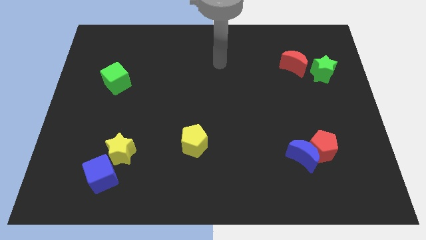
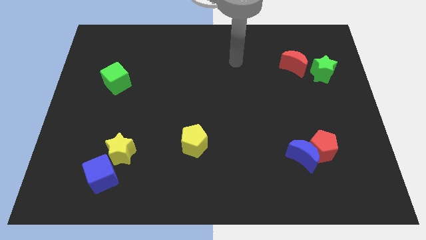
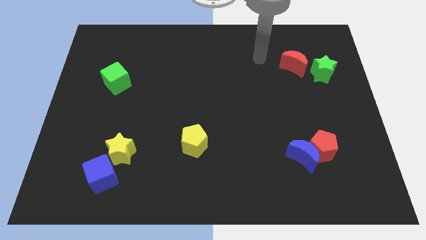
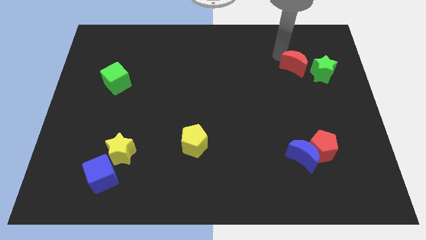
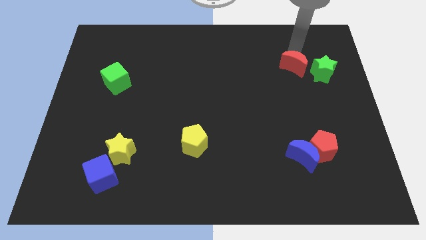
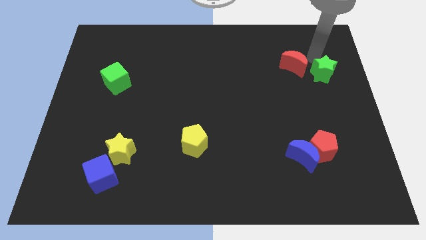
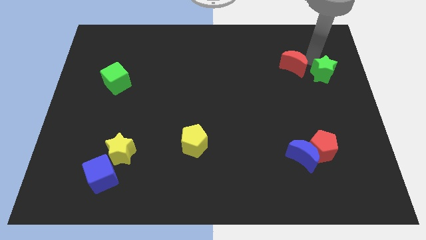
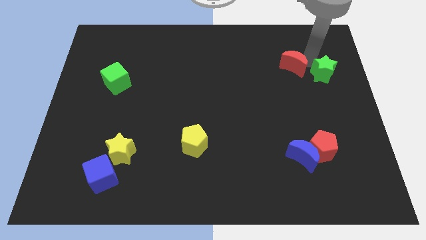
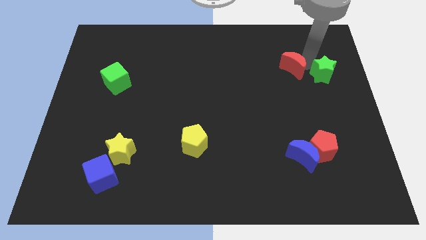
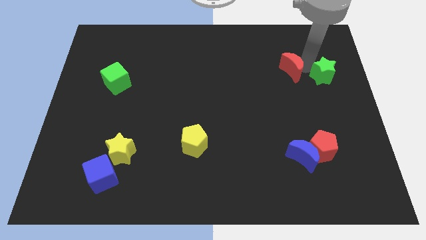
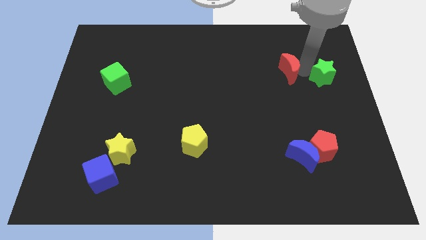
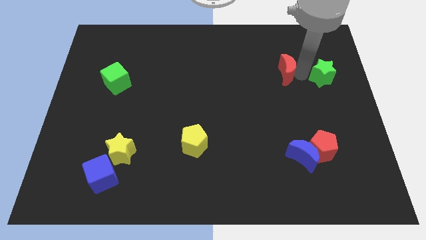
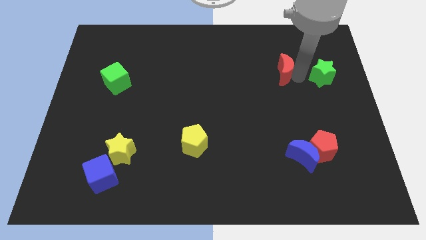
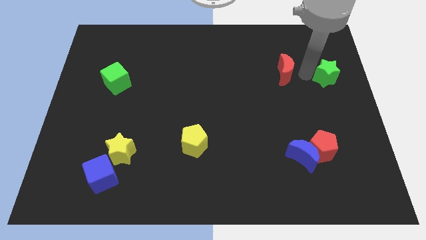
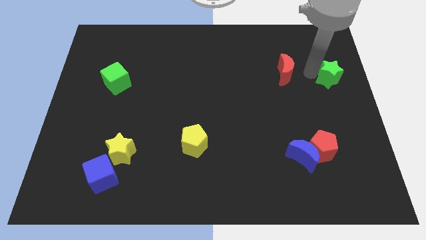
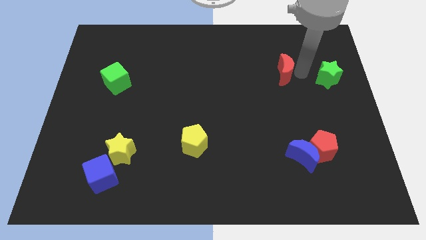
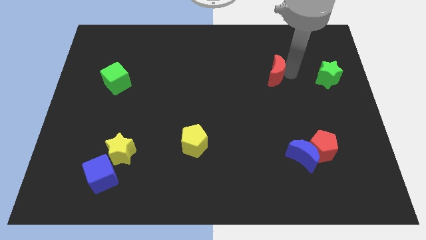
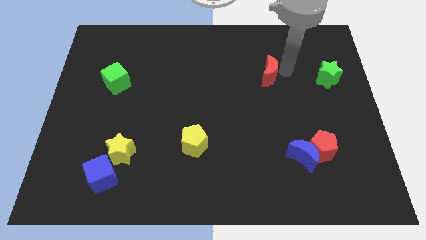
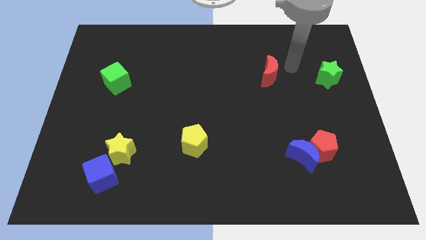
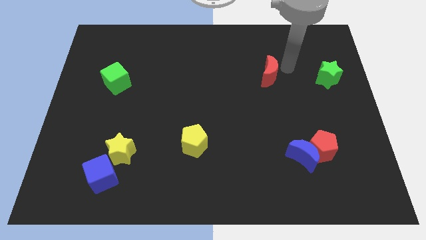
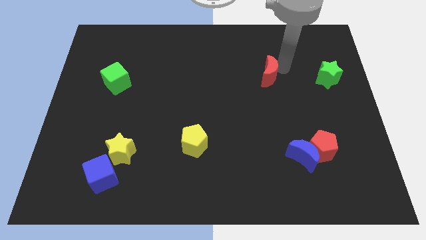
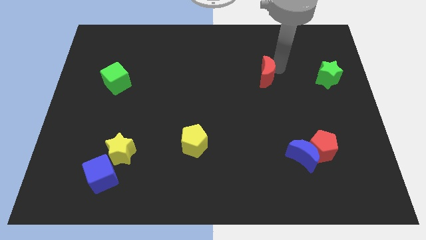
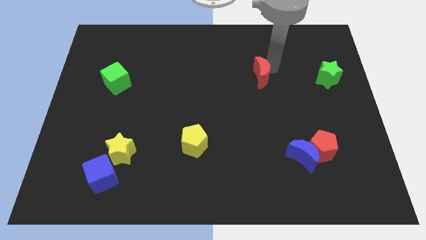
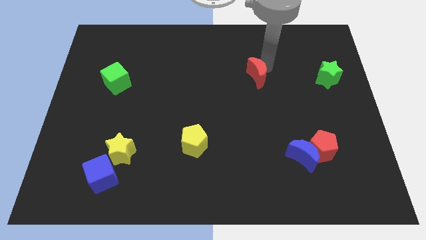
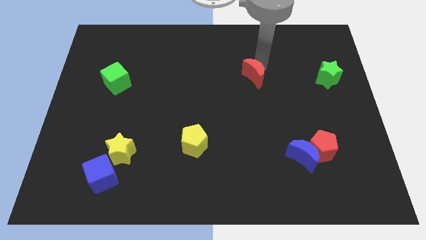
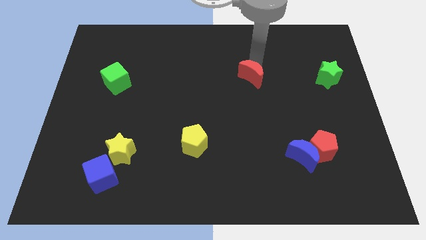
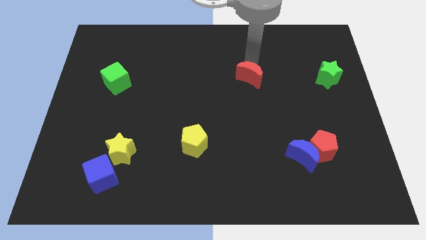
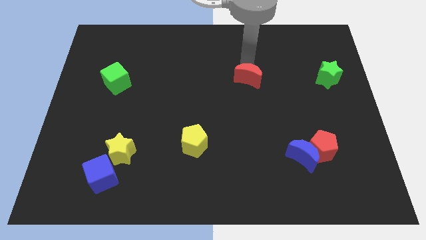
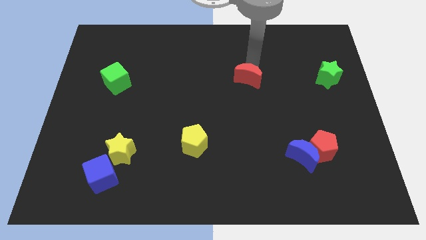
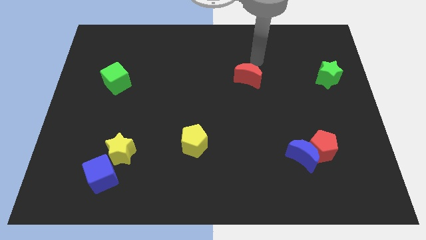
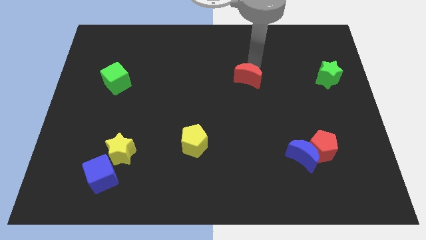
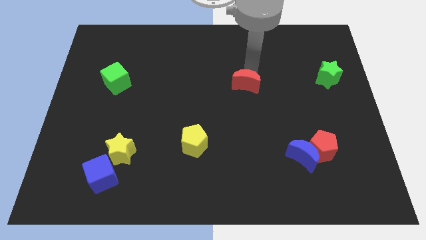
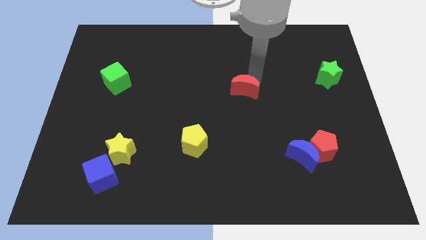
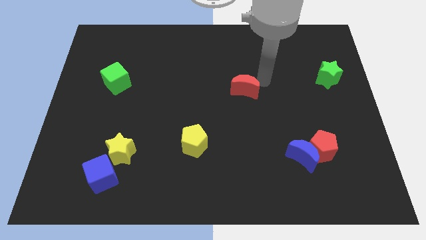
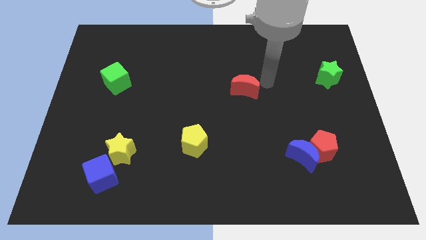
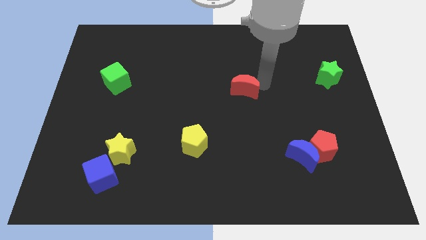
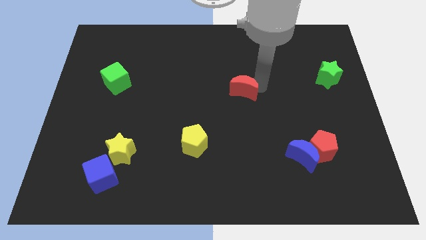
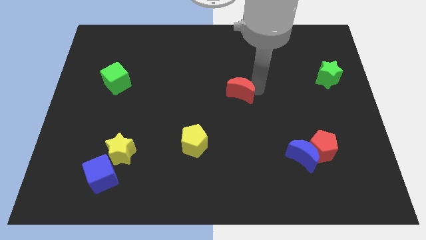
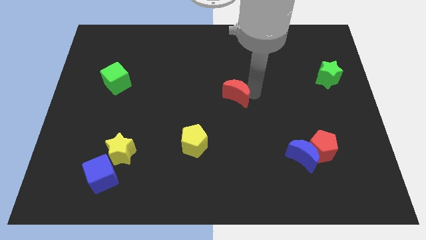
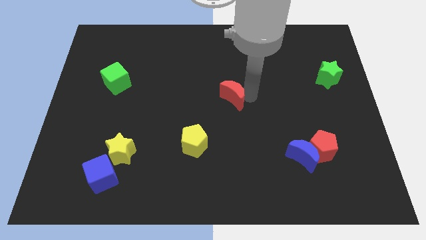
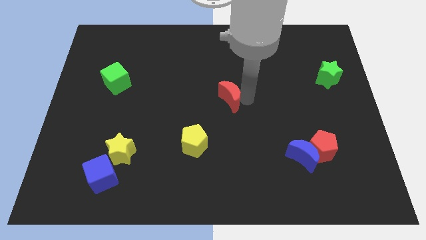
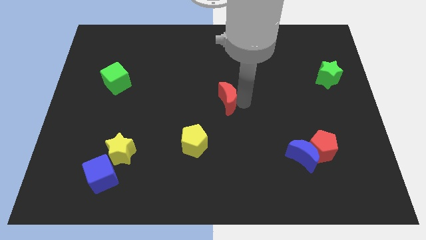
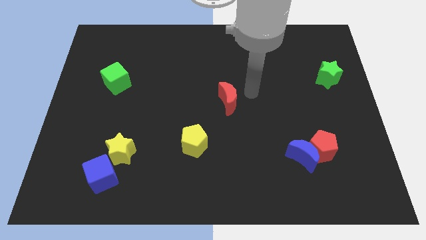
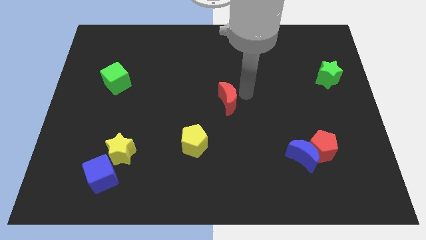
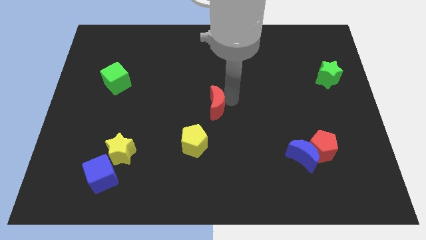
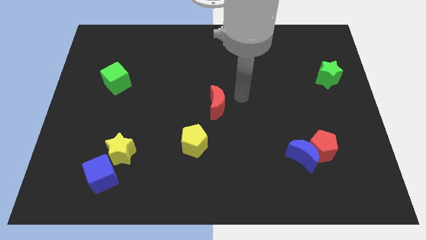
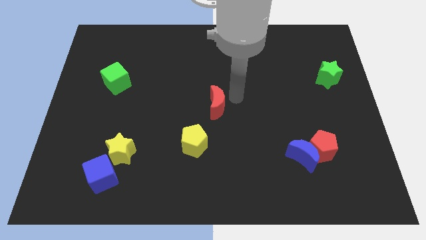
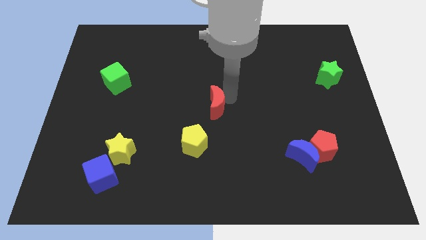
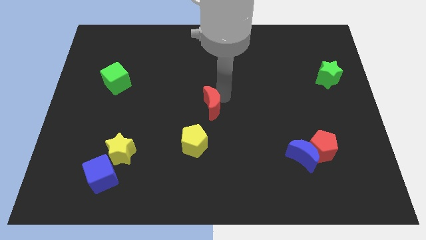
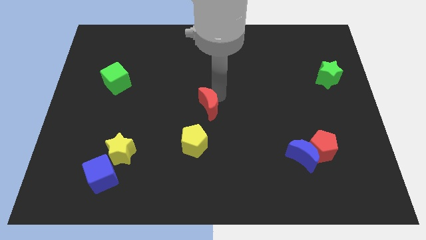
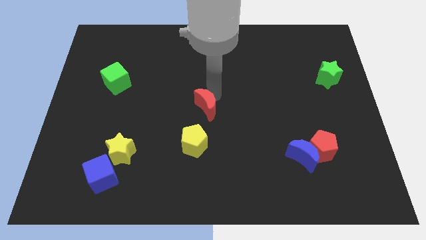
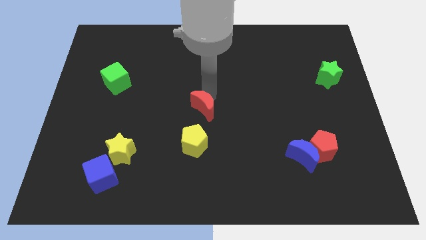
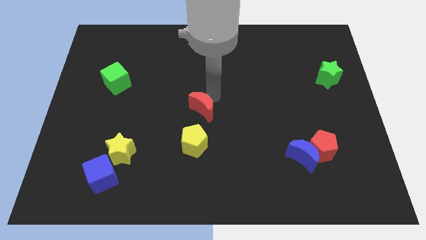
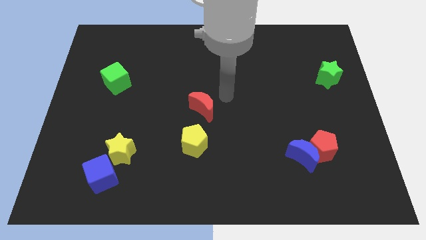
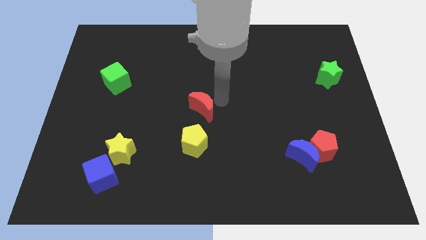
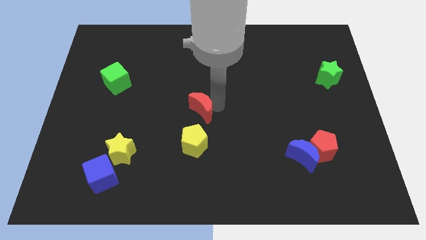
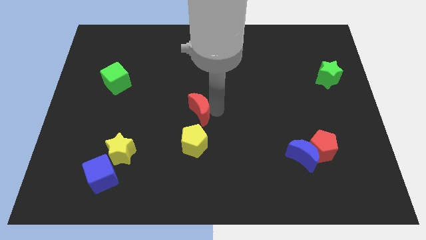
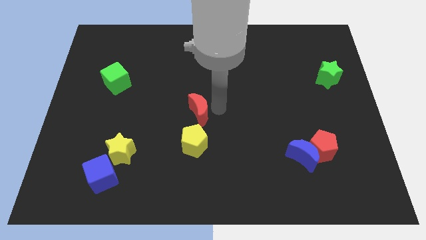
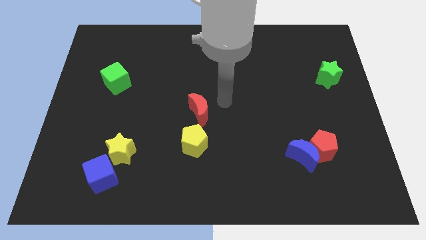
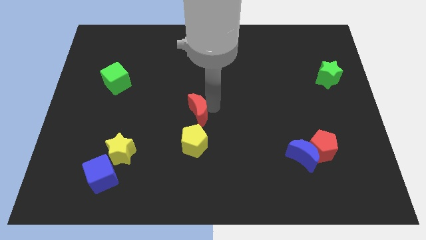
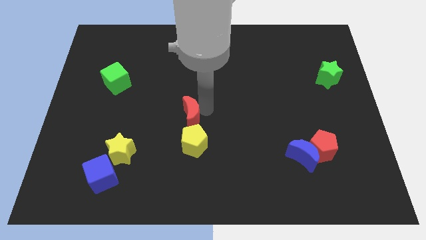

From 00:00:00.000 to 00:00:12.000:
slide the red moon to the top left of the yellow pentagon
